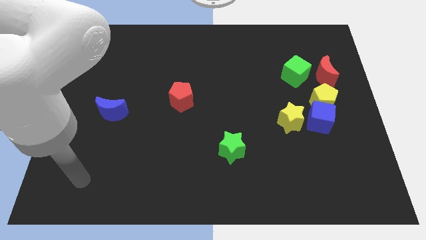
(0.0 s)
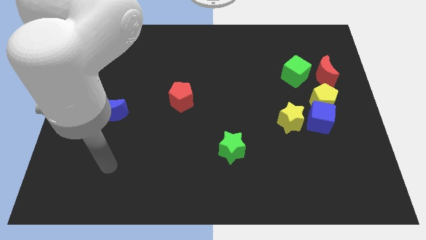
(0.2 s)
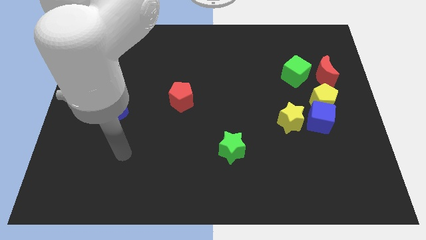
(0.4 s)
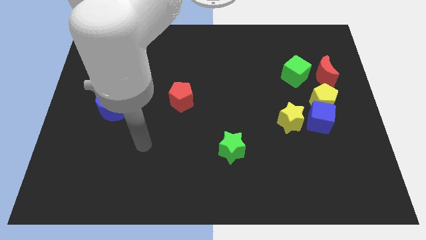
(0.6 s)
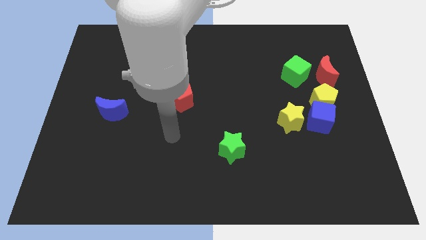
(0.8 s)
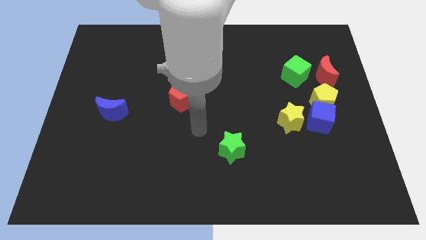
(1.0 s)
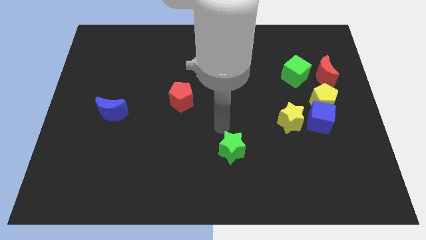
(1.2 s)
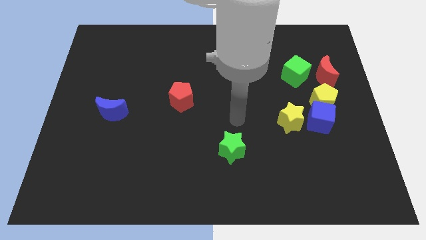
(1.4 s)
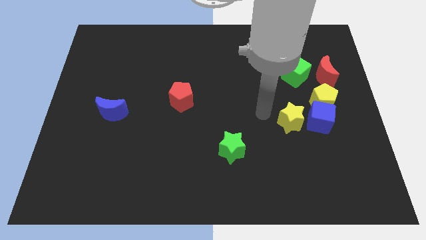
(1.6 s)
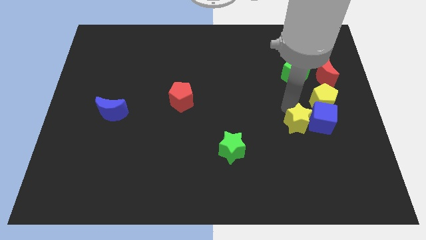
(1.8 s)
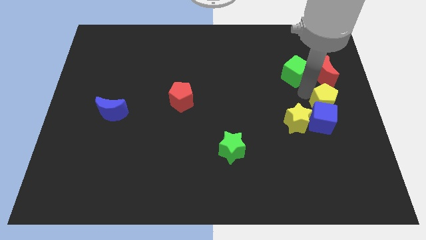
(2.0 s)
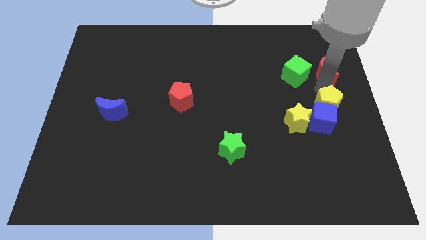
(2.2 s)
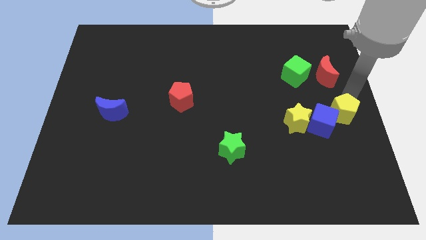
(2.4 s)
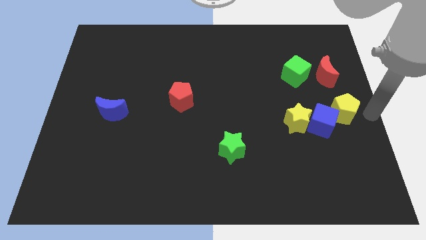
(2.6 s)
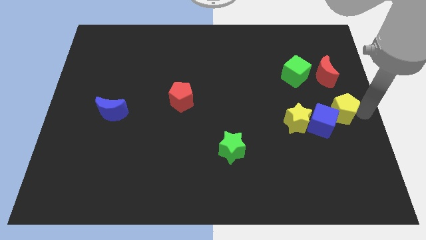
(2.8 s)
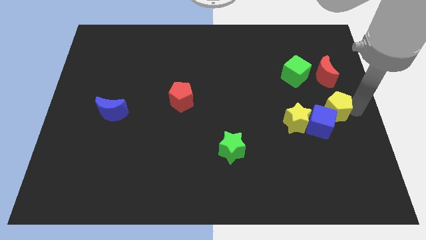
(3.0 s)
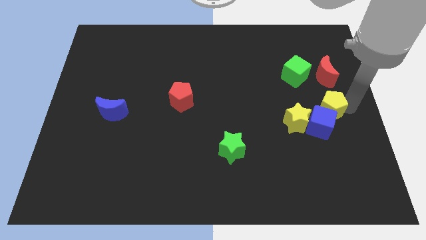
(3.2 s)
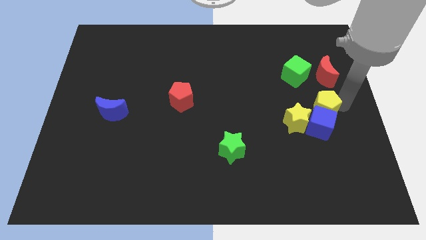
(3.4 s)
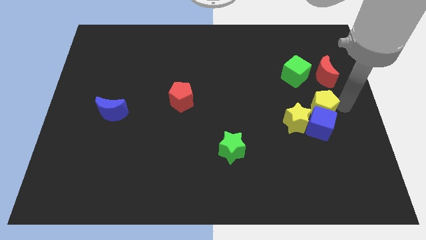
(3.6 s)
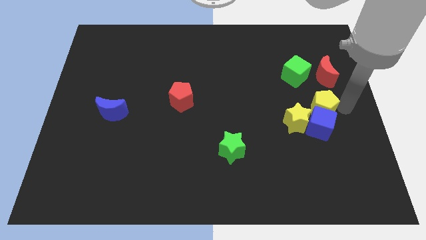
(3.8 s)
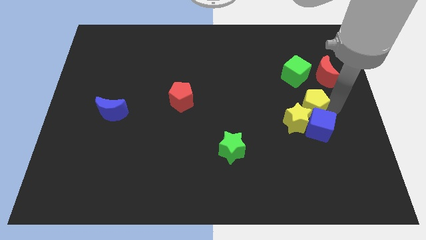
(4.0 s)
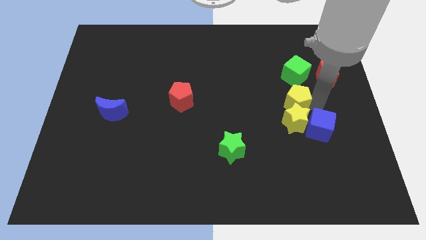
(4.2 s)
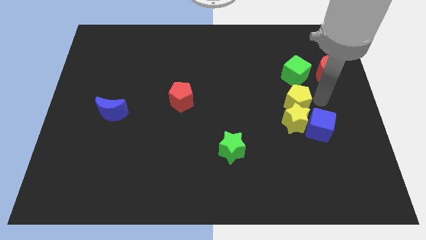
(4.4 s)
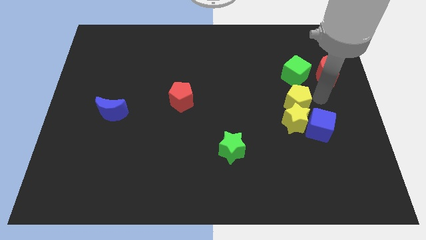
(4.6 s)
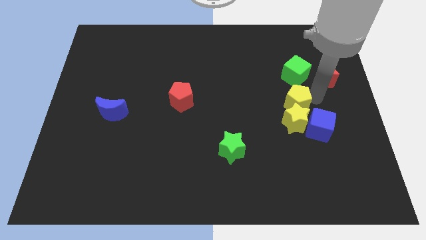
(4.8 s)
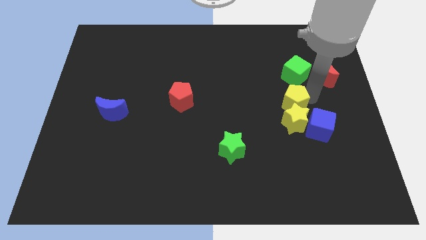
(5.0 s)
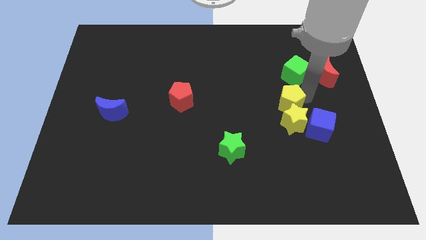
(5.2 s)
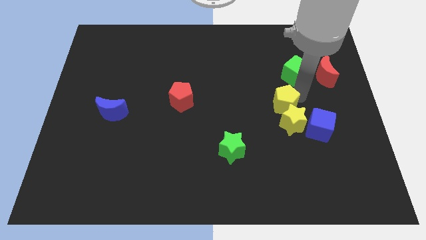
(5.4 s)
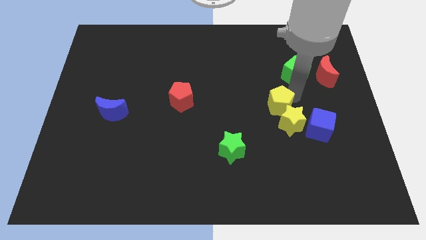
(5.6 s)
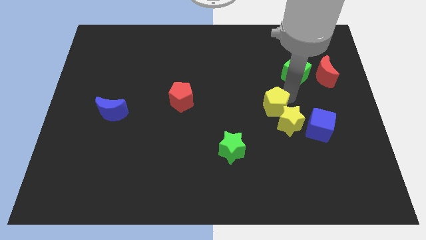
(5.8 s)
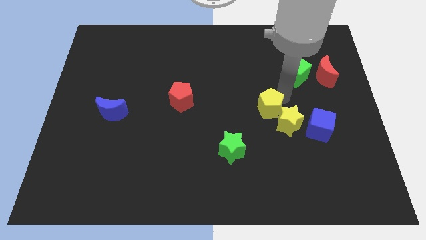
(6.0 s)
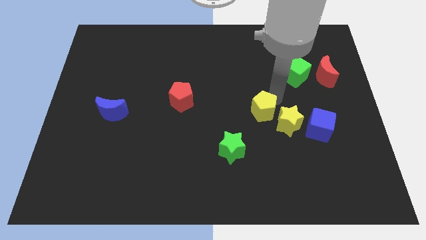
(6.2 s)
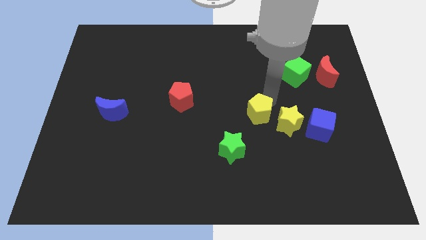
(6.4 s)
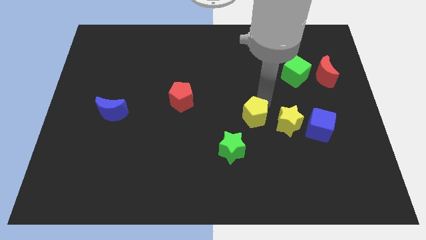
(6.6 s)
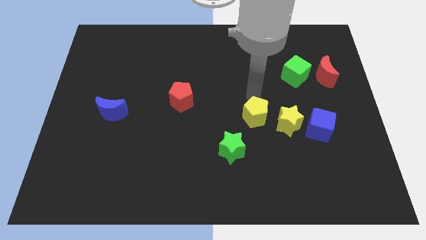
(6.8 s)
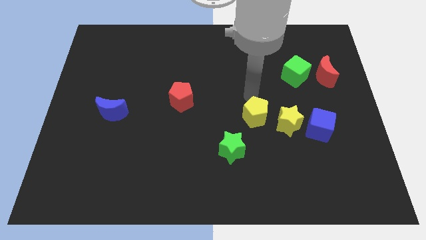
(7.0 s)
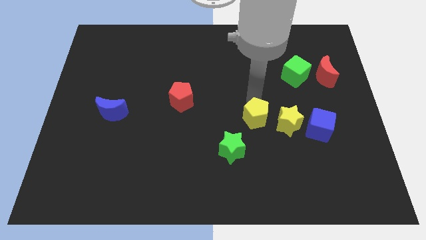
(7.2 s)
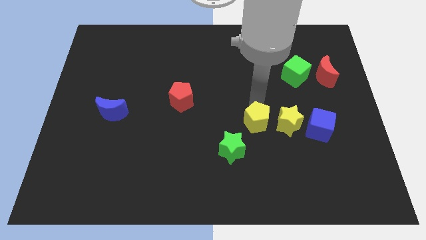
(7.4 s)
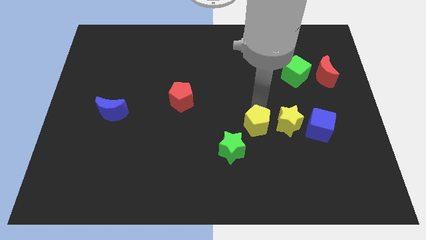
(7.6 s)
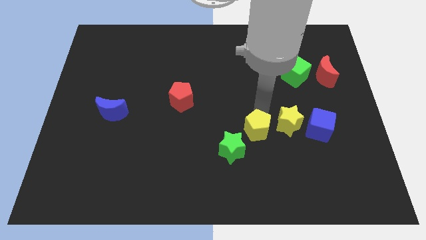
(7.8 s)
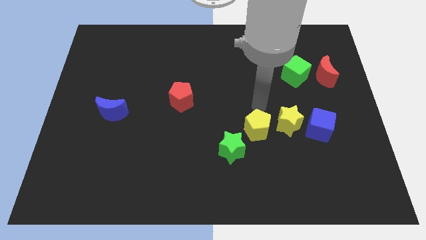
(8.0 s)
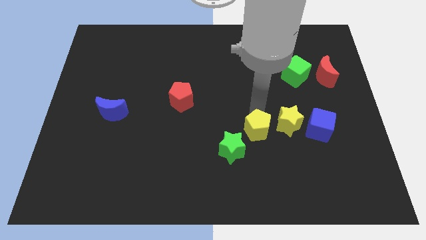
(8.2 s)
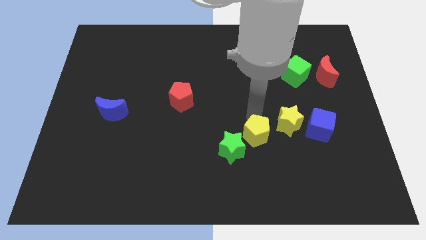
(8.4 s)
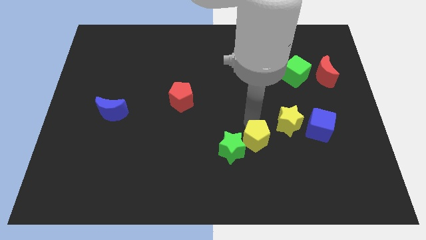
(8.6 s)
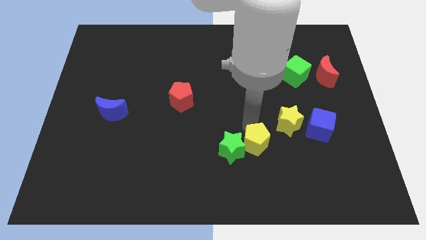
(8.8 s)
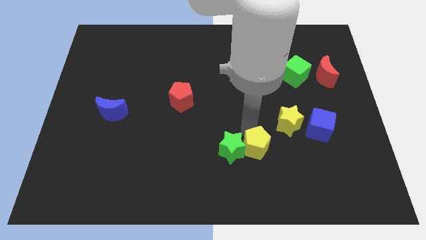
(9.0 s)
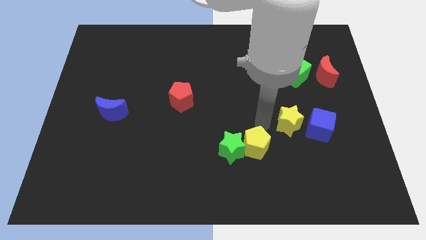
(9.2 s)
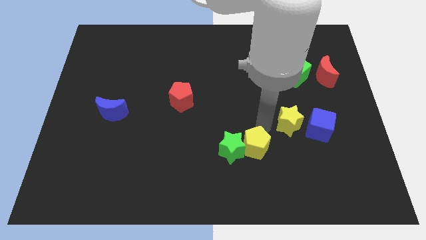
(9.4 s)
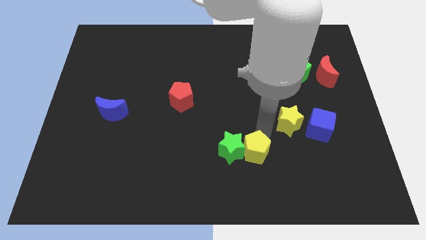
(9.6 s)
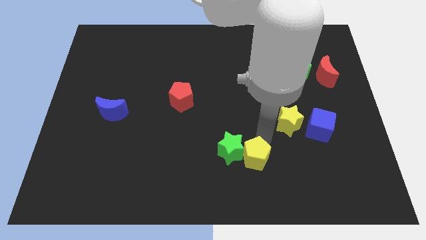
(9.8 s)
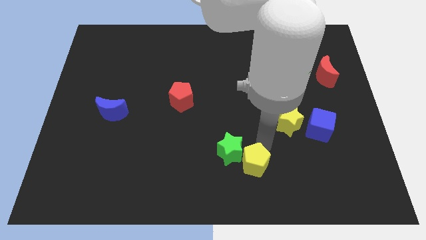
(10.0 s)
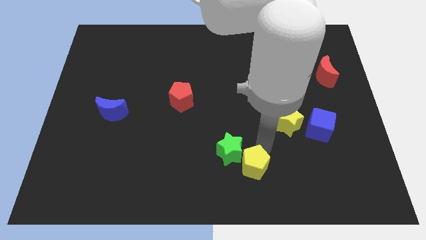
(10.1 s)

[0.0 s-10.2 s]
put the yellow pentagon to the bottom side

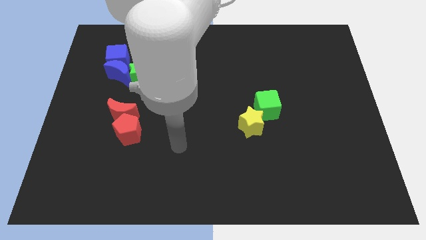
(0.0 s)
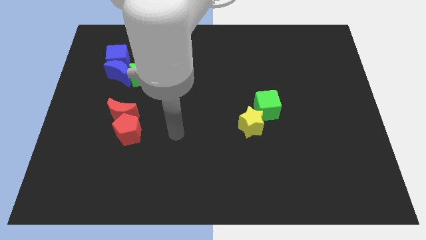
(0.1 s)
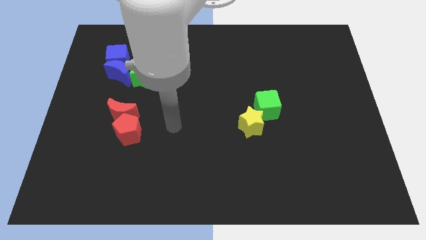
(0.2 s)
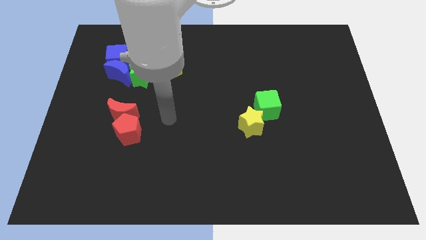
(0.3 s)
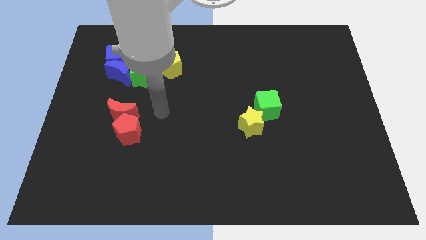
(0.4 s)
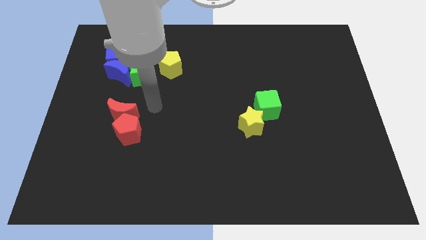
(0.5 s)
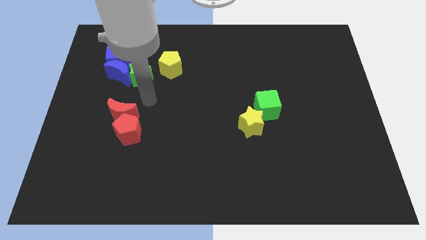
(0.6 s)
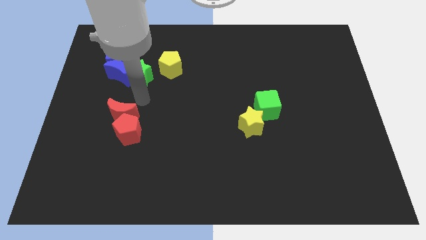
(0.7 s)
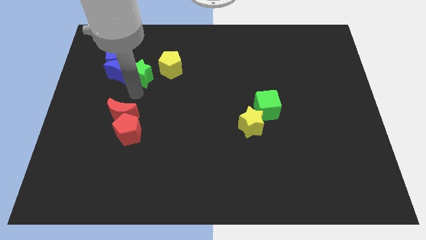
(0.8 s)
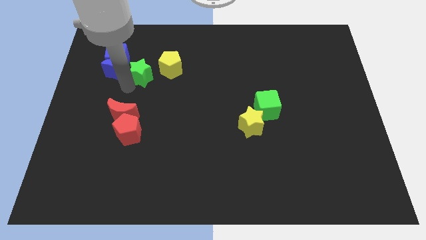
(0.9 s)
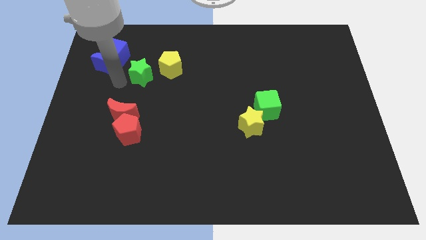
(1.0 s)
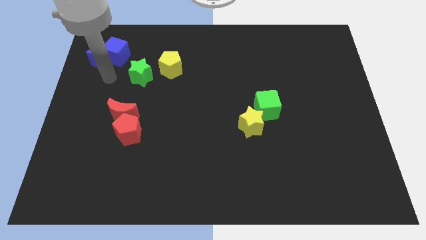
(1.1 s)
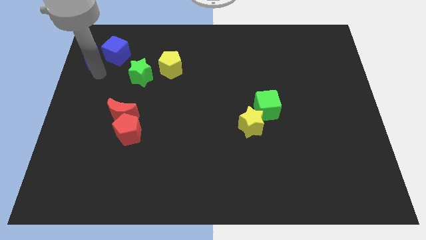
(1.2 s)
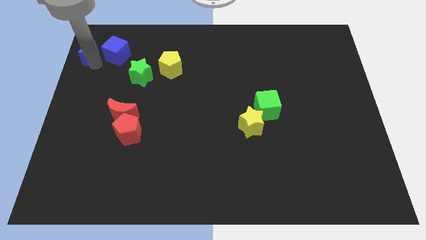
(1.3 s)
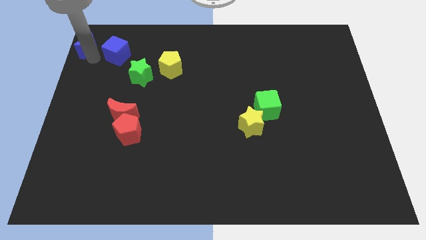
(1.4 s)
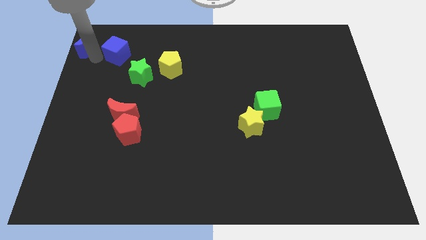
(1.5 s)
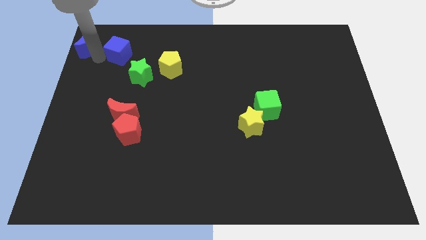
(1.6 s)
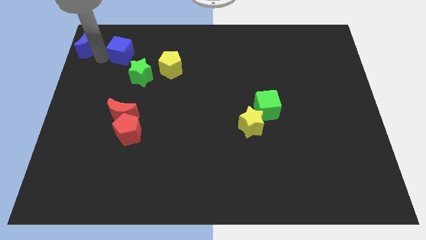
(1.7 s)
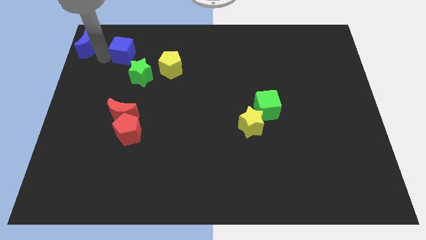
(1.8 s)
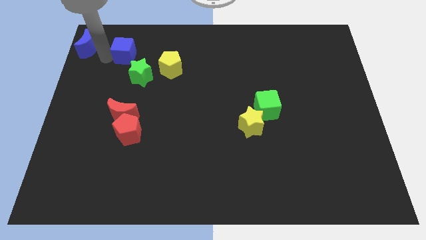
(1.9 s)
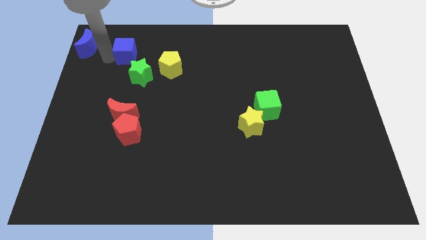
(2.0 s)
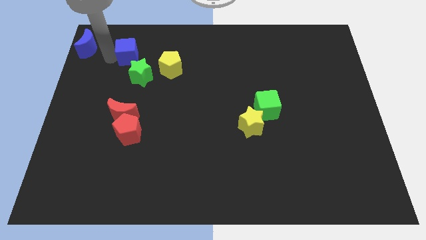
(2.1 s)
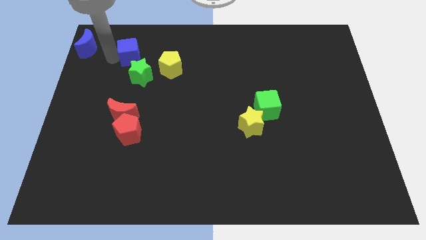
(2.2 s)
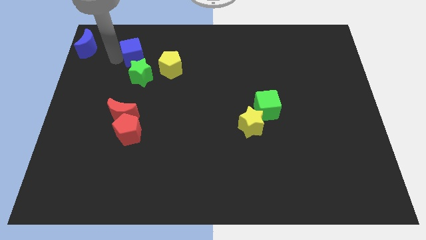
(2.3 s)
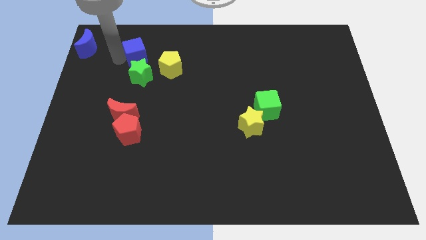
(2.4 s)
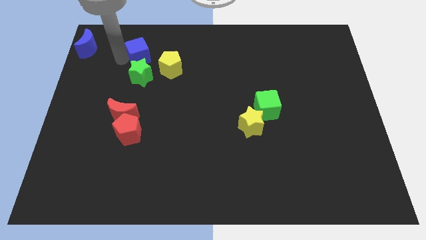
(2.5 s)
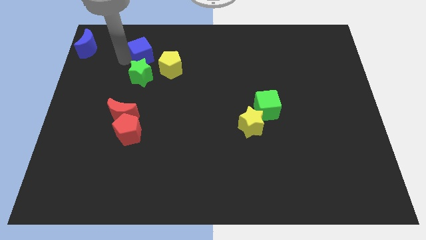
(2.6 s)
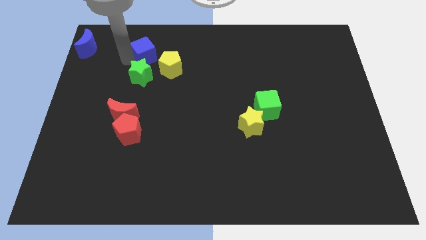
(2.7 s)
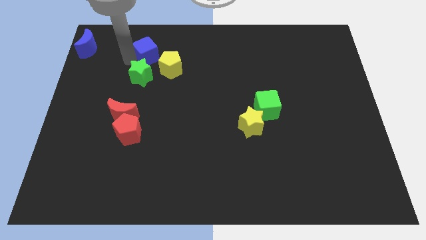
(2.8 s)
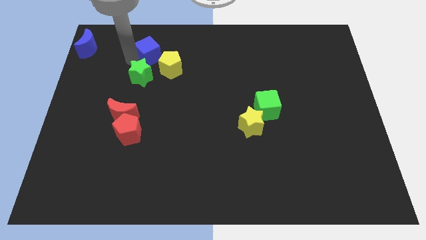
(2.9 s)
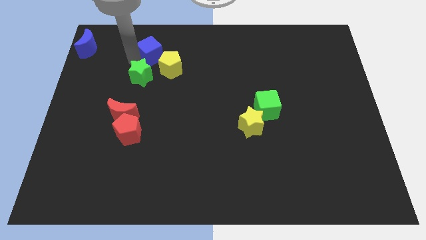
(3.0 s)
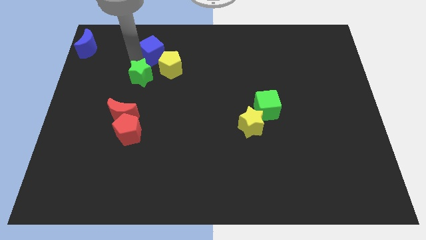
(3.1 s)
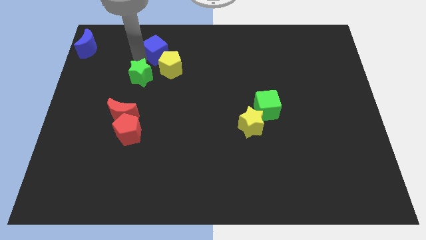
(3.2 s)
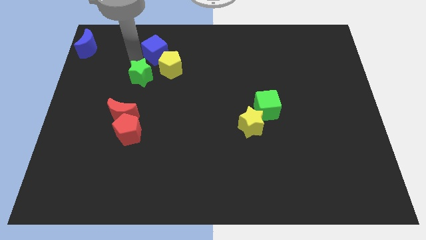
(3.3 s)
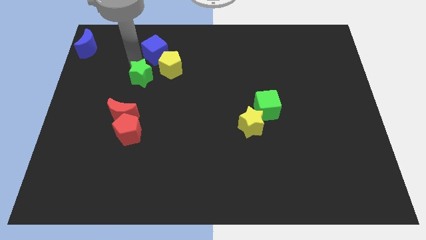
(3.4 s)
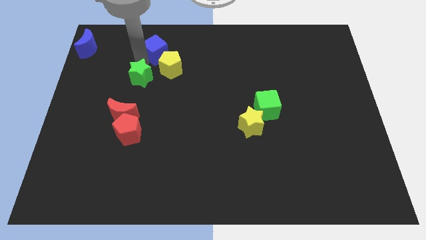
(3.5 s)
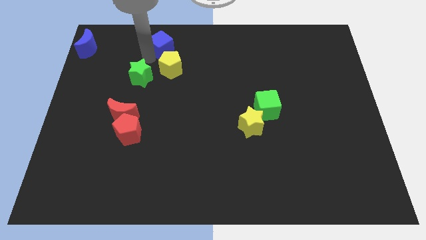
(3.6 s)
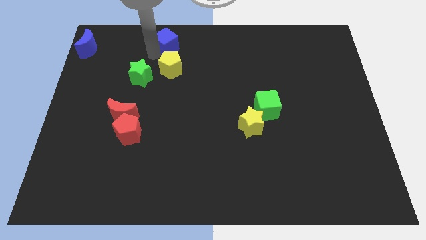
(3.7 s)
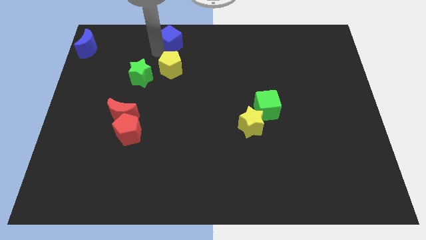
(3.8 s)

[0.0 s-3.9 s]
slide the blue cube to the towards your base
